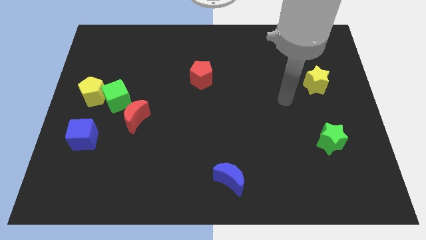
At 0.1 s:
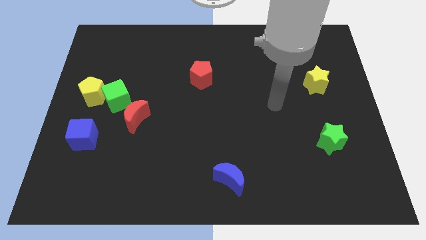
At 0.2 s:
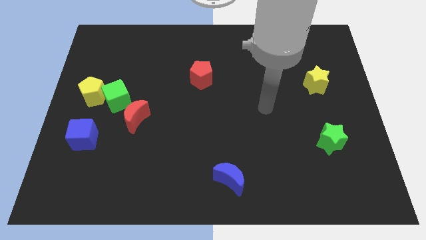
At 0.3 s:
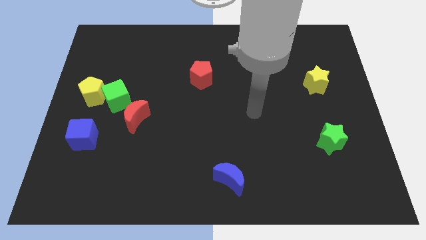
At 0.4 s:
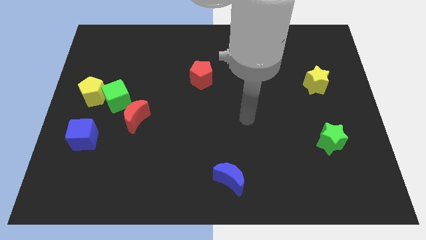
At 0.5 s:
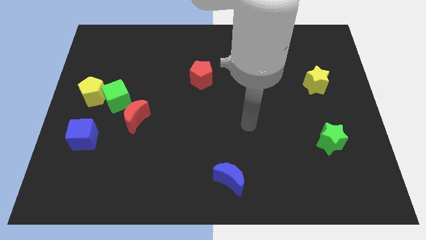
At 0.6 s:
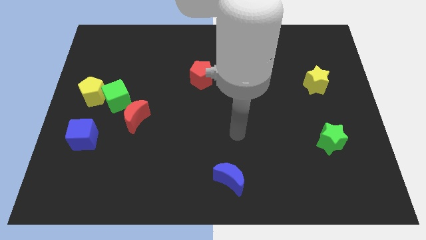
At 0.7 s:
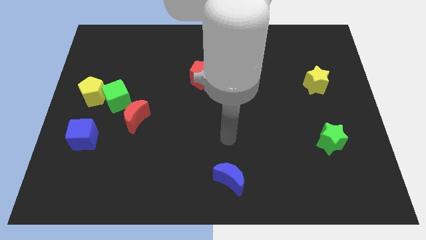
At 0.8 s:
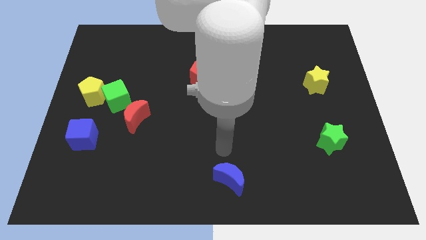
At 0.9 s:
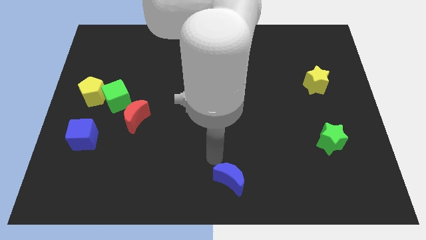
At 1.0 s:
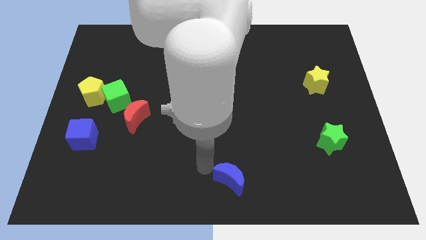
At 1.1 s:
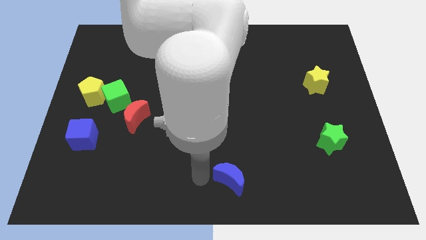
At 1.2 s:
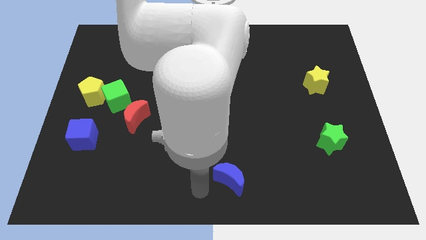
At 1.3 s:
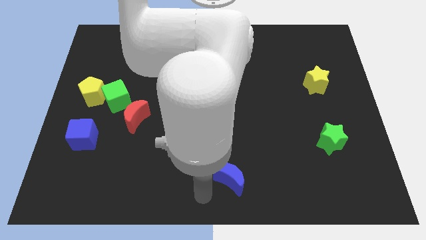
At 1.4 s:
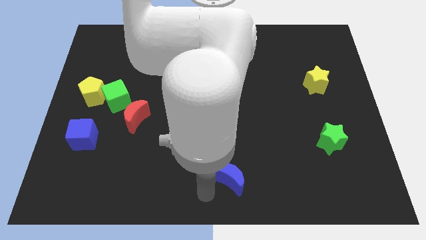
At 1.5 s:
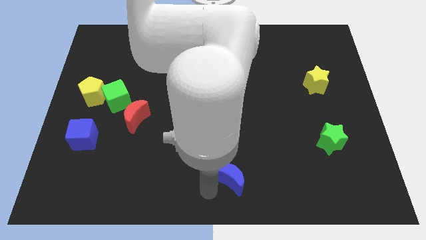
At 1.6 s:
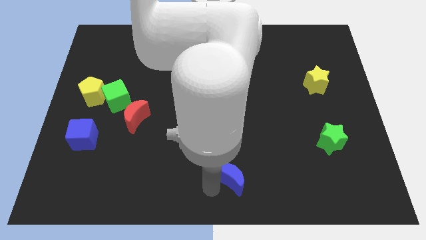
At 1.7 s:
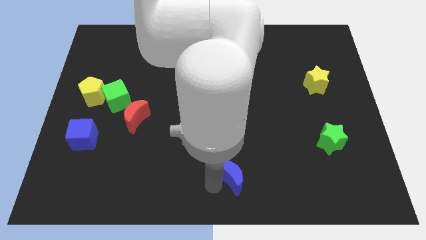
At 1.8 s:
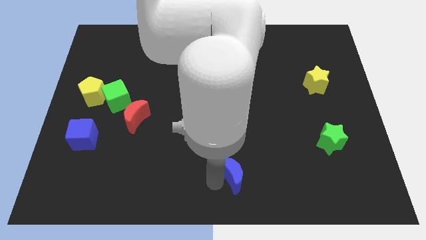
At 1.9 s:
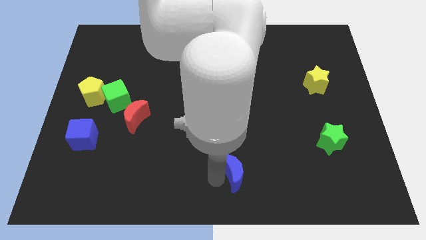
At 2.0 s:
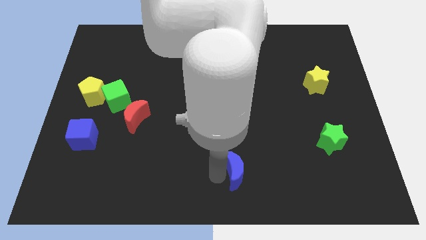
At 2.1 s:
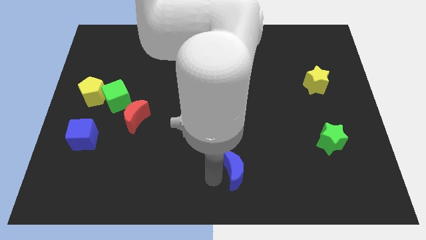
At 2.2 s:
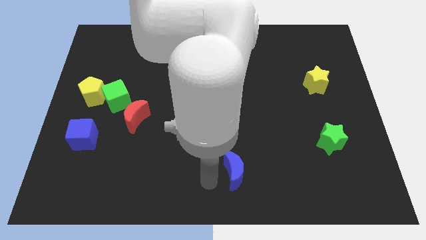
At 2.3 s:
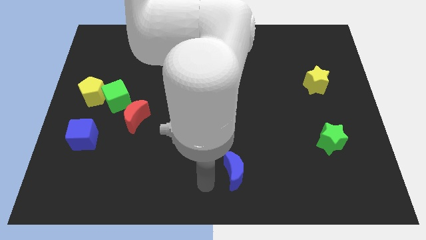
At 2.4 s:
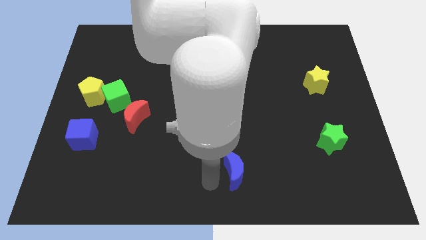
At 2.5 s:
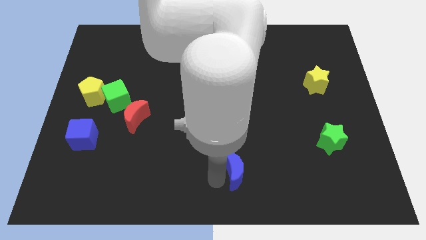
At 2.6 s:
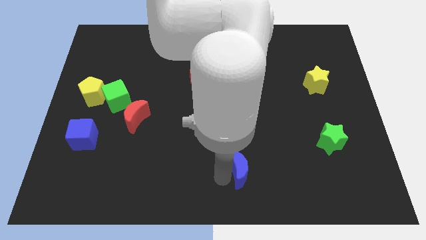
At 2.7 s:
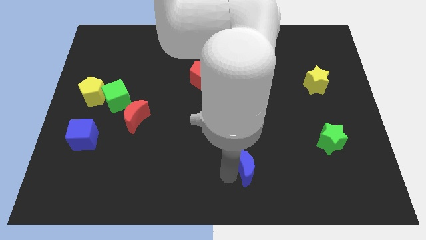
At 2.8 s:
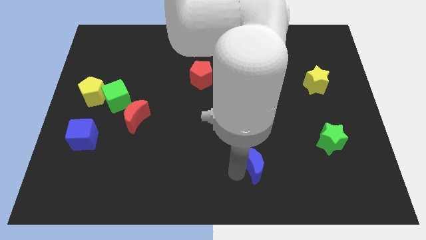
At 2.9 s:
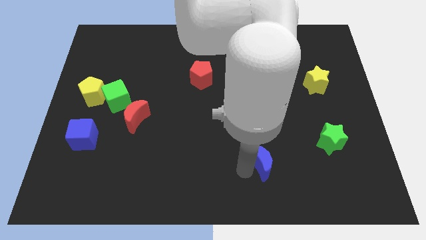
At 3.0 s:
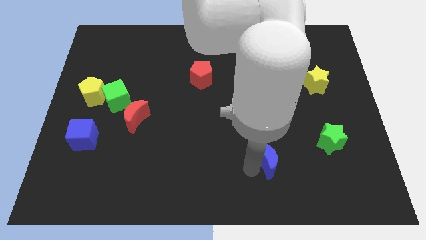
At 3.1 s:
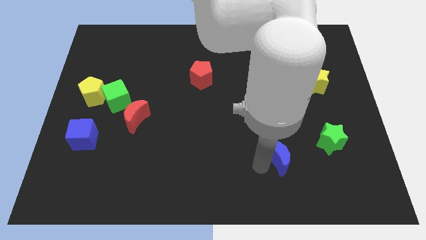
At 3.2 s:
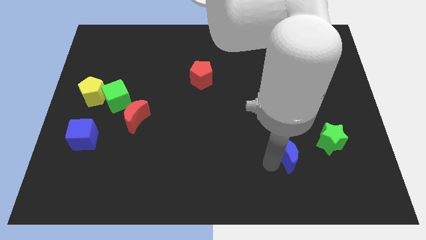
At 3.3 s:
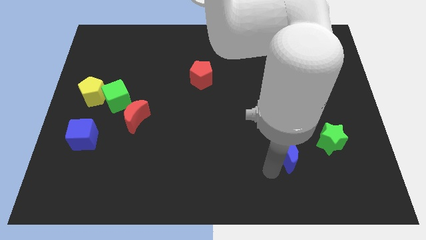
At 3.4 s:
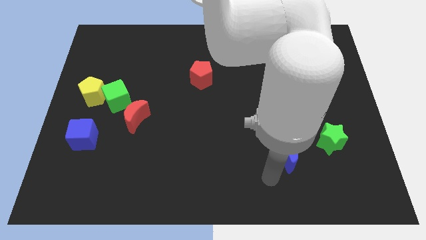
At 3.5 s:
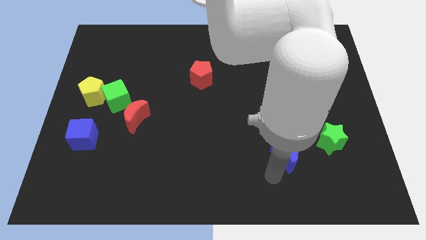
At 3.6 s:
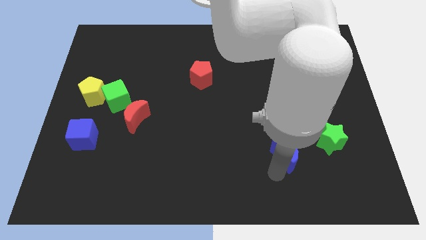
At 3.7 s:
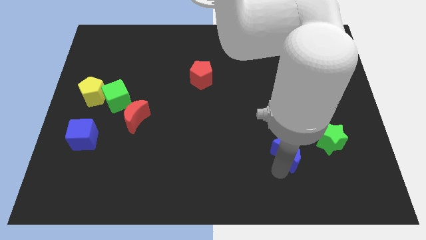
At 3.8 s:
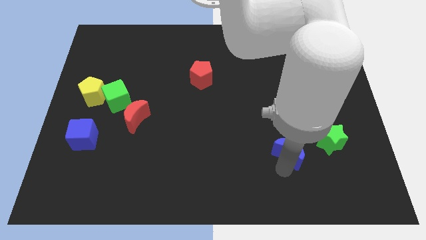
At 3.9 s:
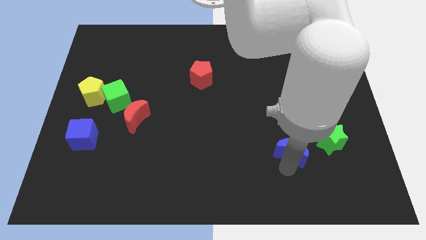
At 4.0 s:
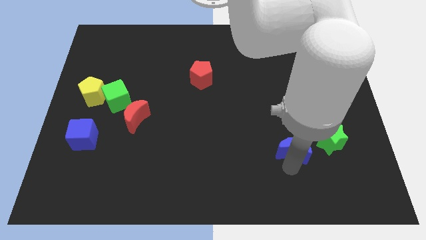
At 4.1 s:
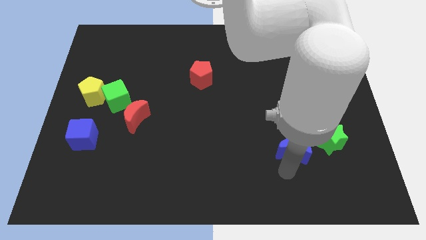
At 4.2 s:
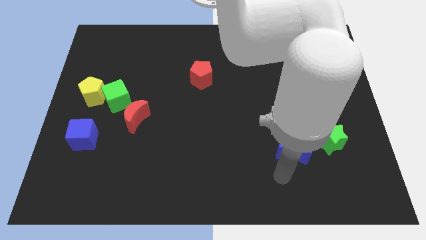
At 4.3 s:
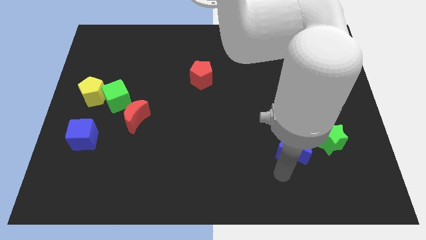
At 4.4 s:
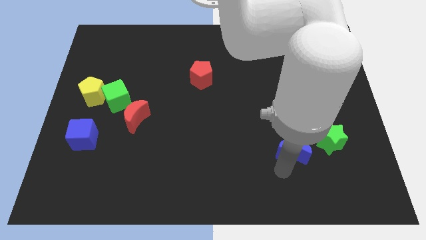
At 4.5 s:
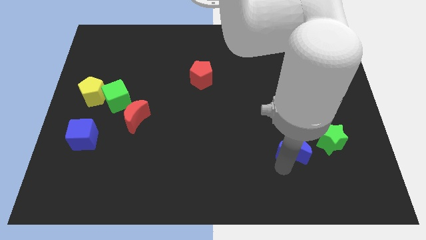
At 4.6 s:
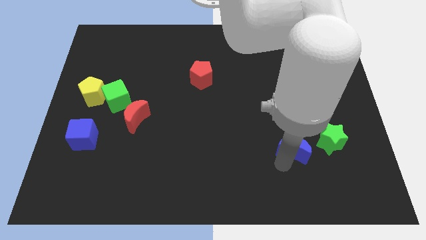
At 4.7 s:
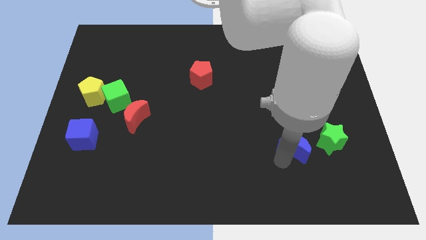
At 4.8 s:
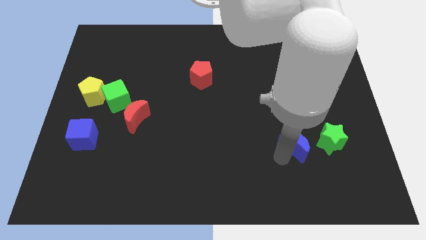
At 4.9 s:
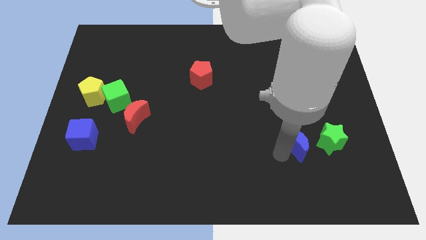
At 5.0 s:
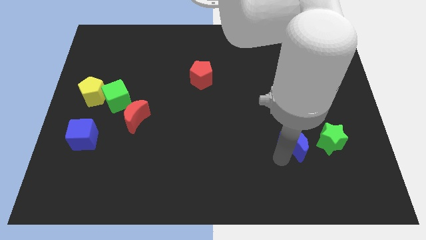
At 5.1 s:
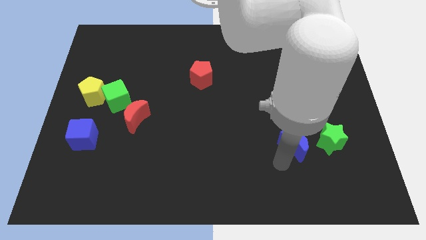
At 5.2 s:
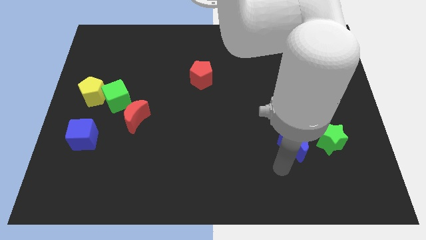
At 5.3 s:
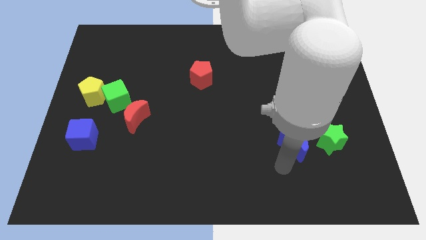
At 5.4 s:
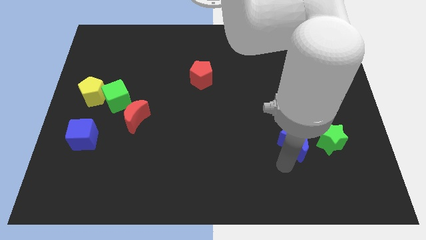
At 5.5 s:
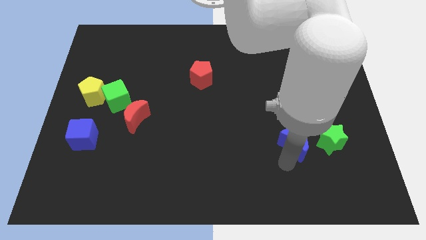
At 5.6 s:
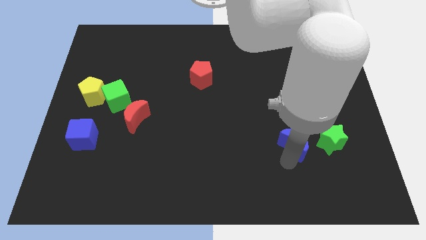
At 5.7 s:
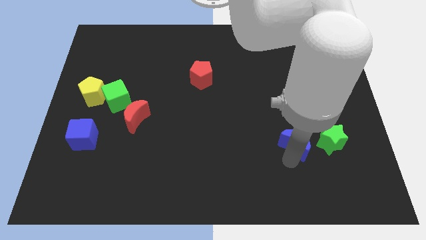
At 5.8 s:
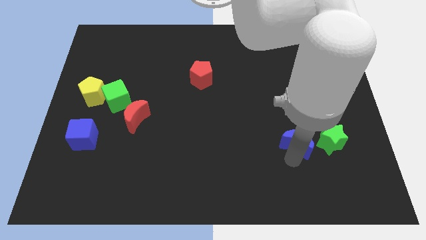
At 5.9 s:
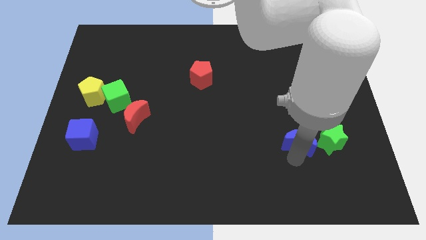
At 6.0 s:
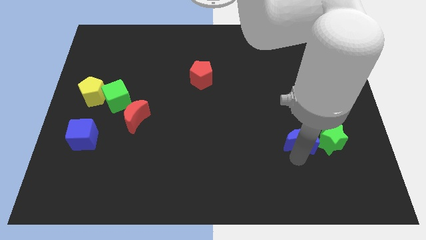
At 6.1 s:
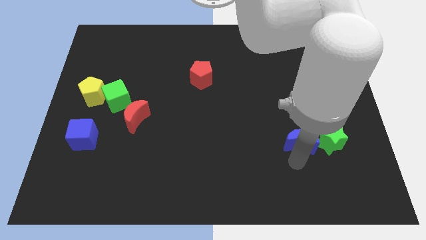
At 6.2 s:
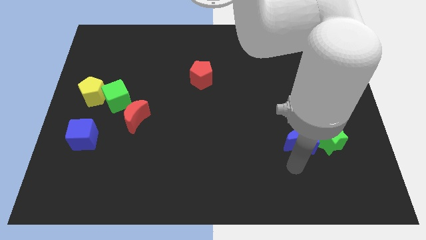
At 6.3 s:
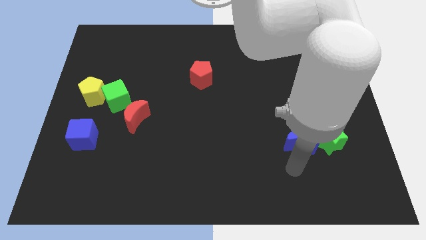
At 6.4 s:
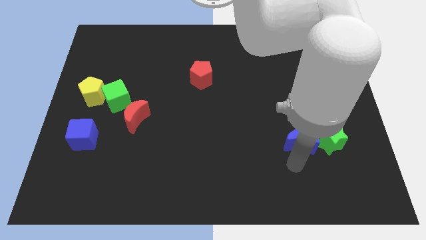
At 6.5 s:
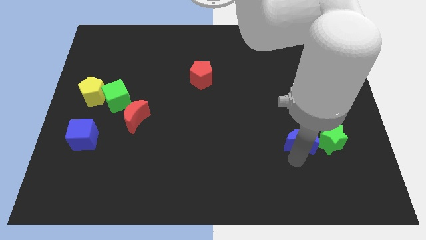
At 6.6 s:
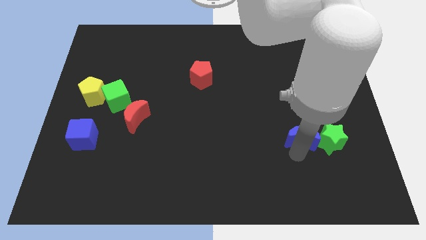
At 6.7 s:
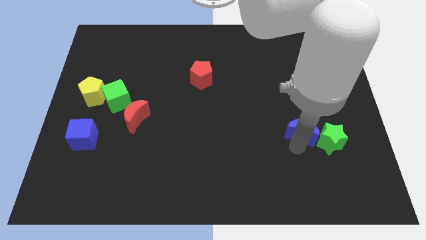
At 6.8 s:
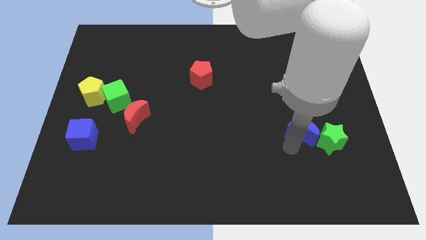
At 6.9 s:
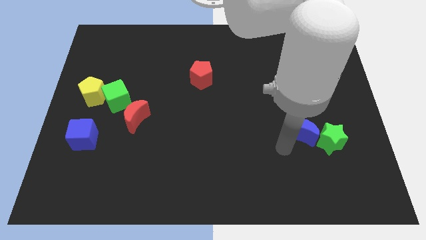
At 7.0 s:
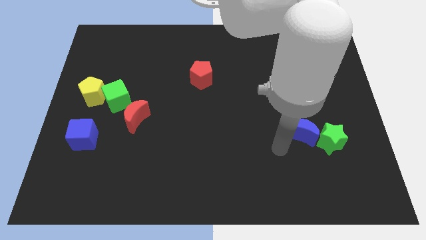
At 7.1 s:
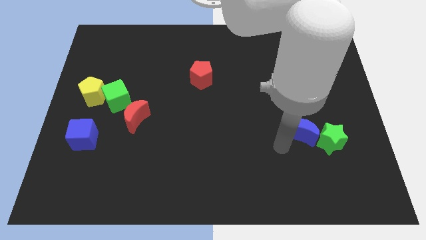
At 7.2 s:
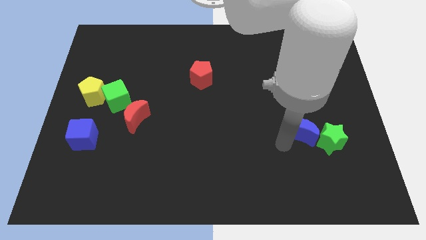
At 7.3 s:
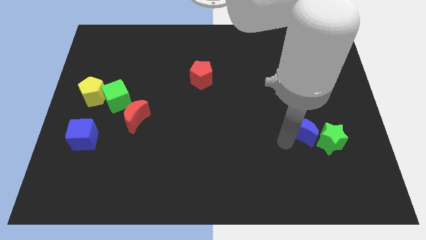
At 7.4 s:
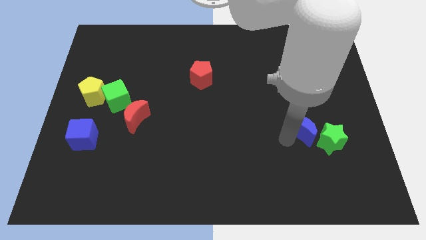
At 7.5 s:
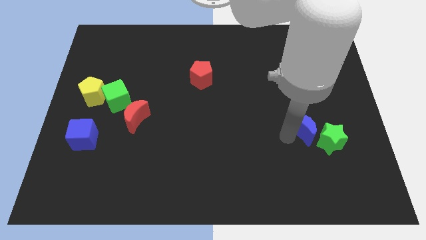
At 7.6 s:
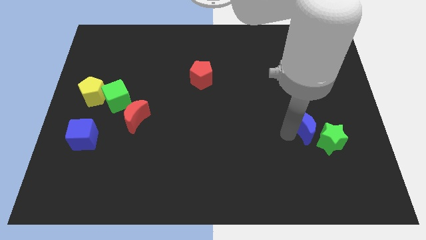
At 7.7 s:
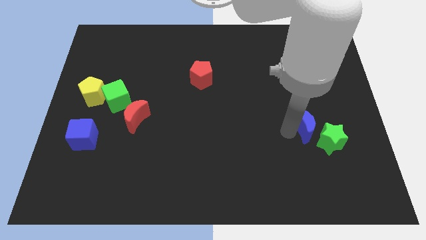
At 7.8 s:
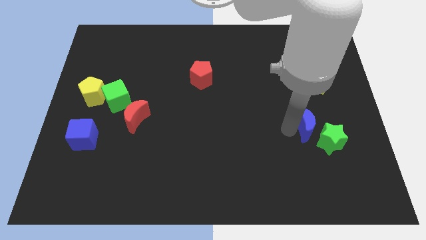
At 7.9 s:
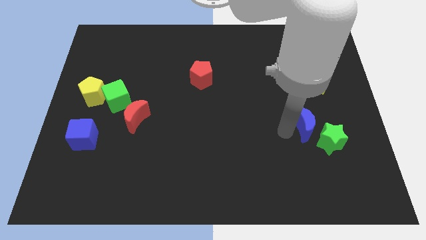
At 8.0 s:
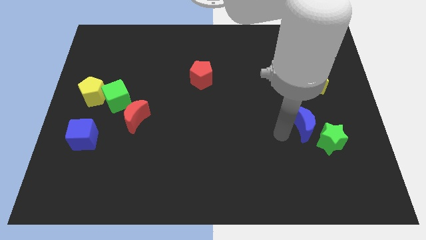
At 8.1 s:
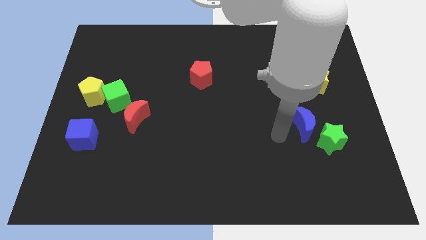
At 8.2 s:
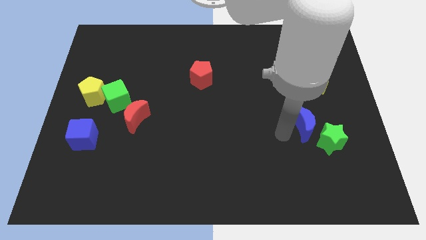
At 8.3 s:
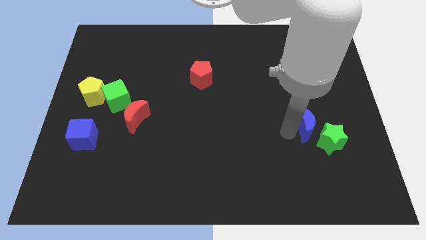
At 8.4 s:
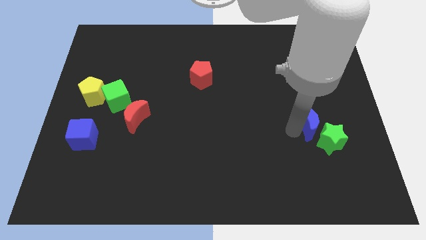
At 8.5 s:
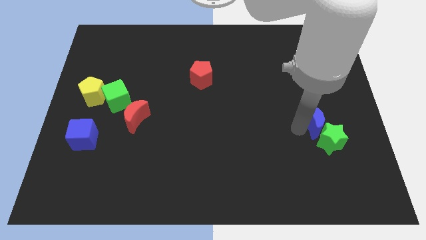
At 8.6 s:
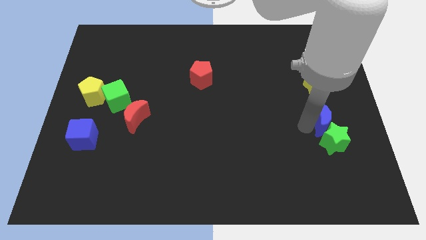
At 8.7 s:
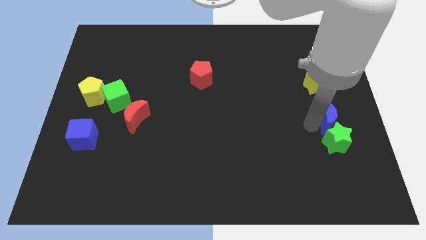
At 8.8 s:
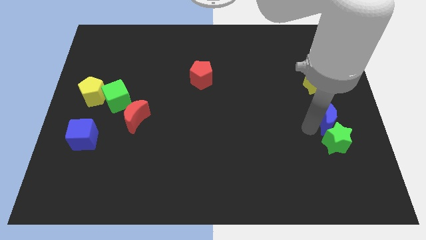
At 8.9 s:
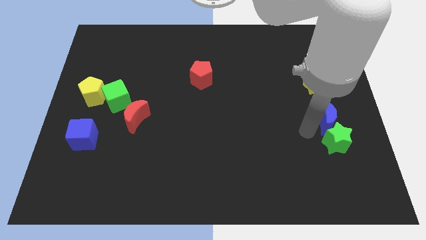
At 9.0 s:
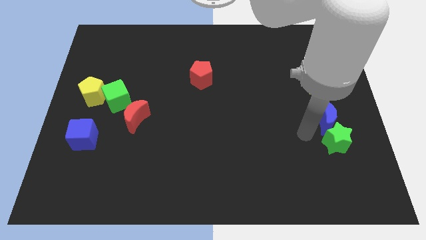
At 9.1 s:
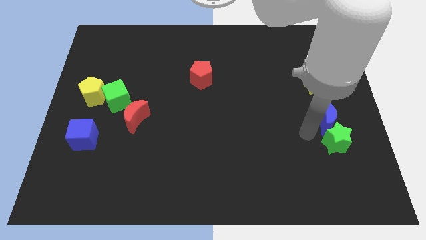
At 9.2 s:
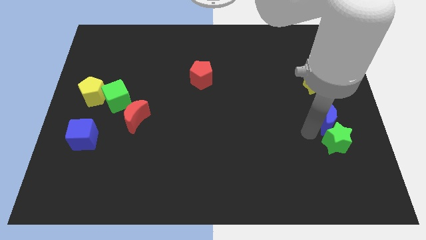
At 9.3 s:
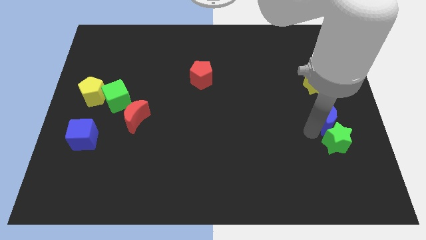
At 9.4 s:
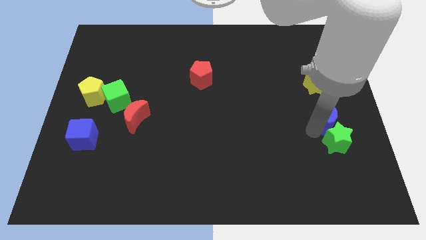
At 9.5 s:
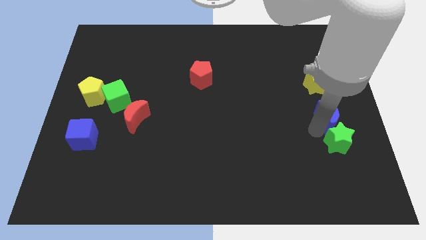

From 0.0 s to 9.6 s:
put the blue moon to the right side
